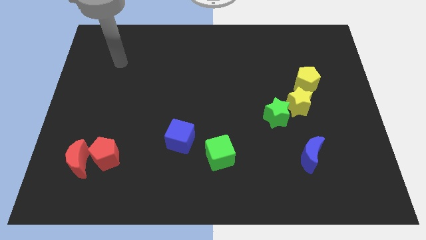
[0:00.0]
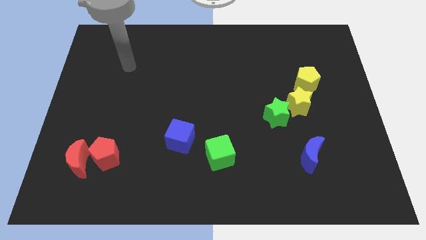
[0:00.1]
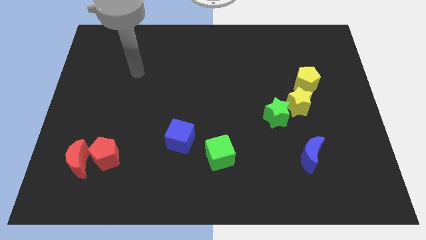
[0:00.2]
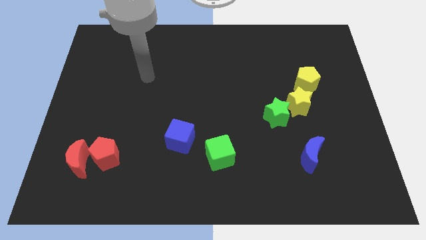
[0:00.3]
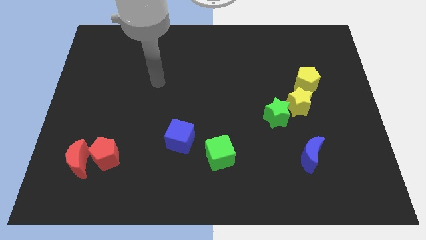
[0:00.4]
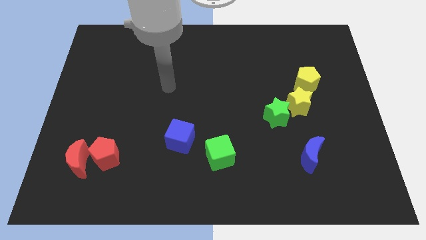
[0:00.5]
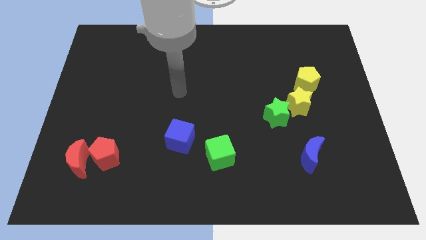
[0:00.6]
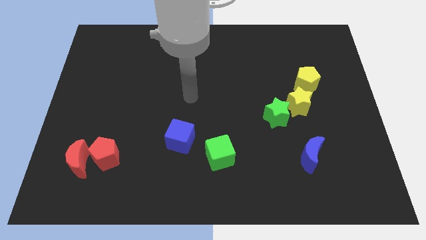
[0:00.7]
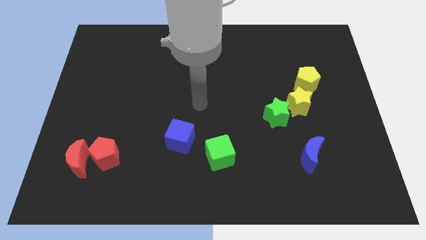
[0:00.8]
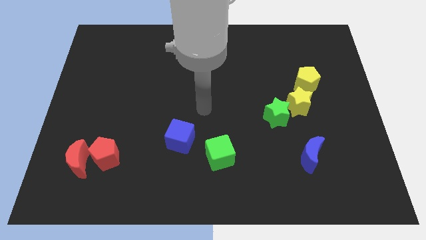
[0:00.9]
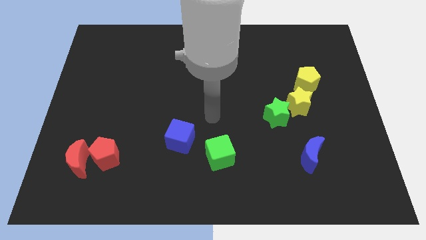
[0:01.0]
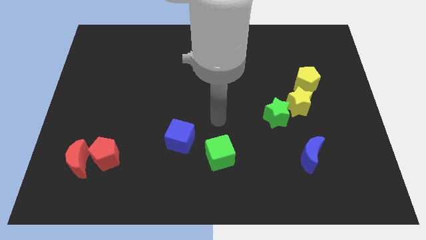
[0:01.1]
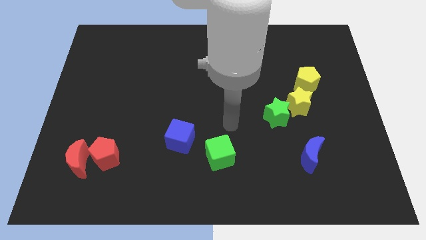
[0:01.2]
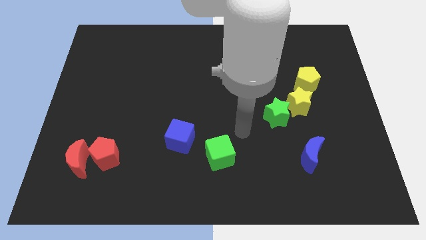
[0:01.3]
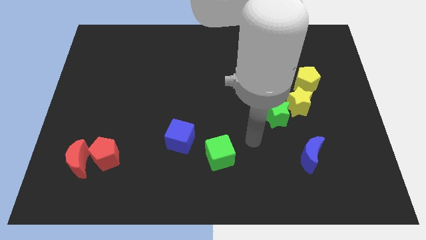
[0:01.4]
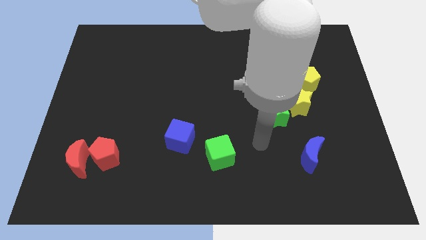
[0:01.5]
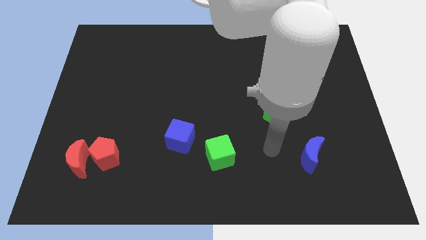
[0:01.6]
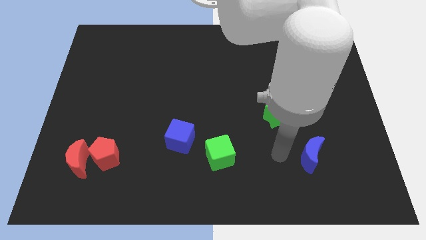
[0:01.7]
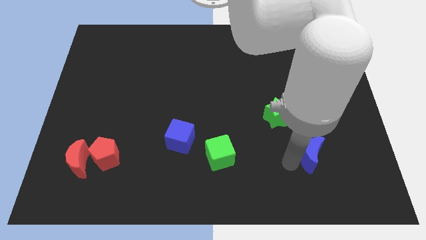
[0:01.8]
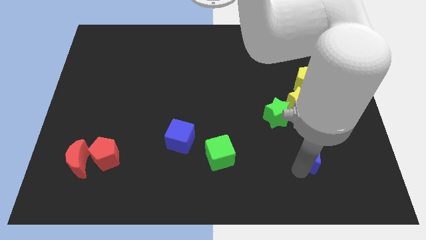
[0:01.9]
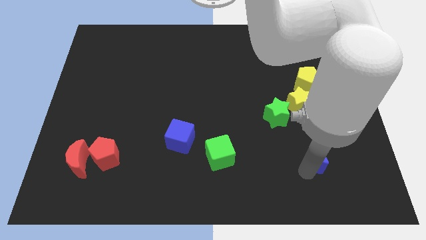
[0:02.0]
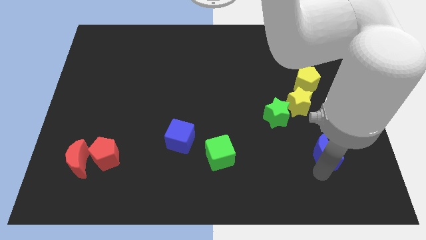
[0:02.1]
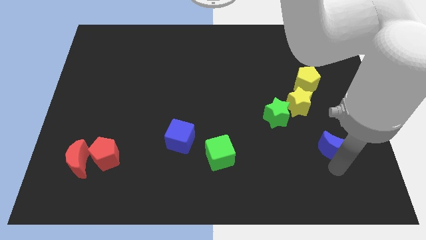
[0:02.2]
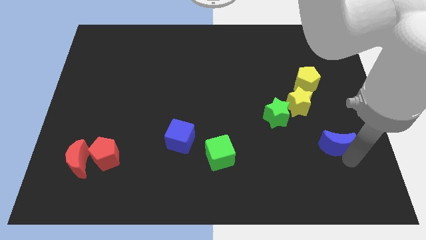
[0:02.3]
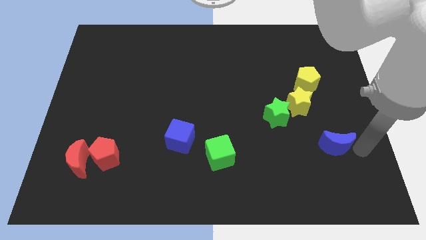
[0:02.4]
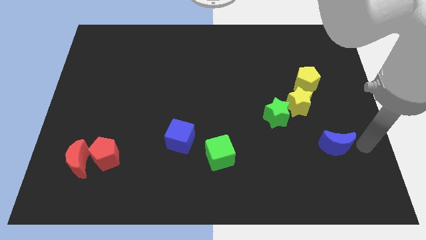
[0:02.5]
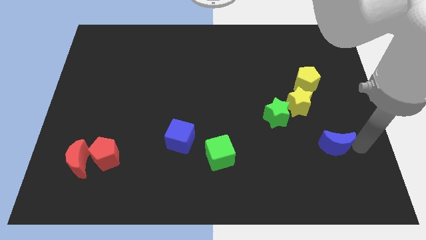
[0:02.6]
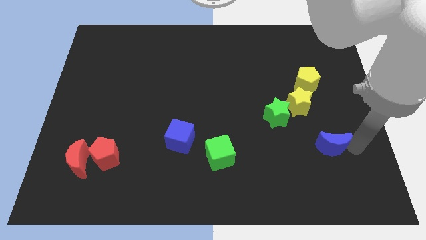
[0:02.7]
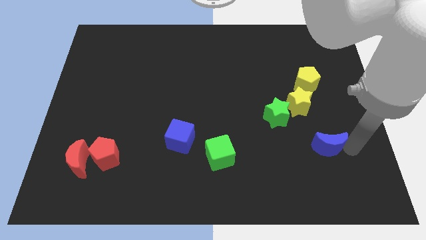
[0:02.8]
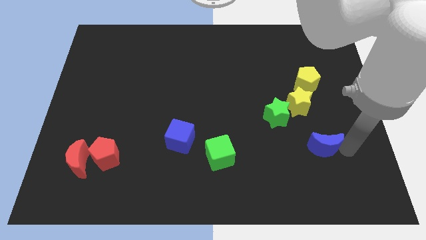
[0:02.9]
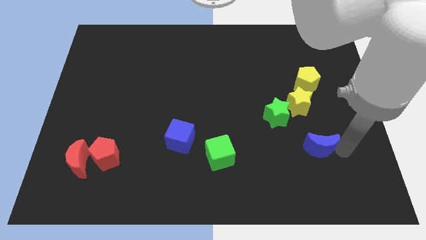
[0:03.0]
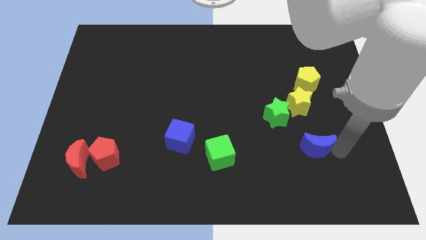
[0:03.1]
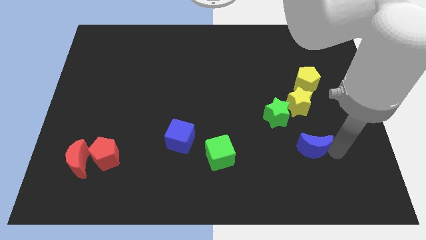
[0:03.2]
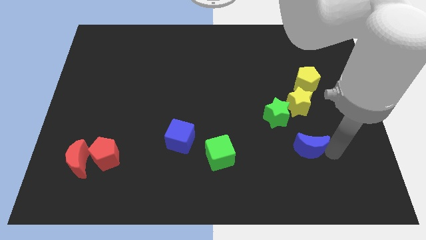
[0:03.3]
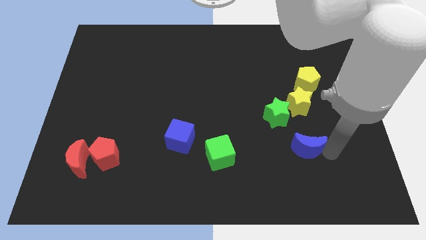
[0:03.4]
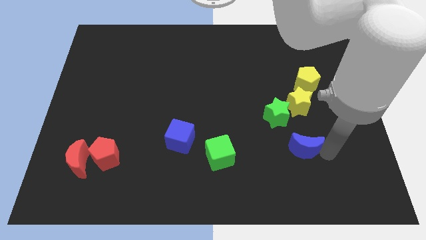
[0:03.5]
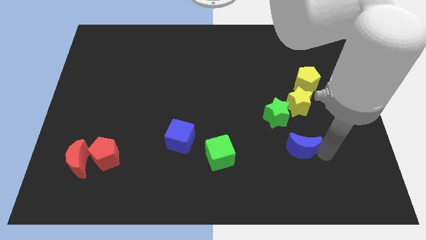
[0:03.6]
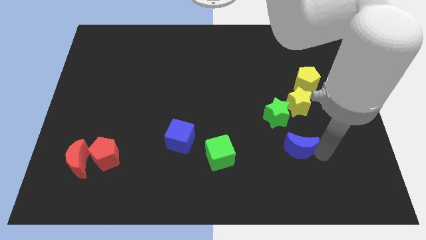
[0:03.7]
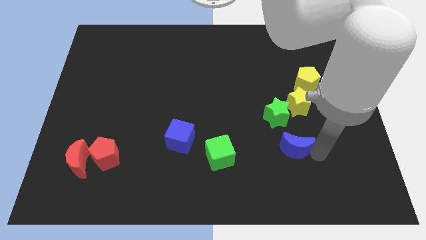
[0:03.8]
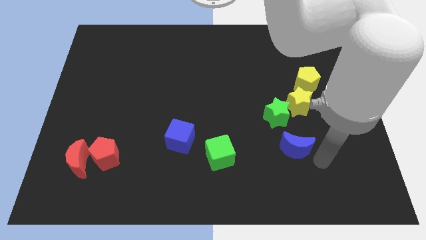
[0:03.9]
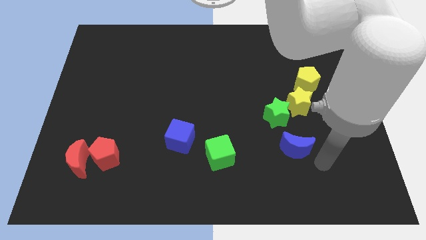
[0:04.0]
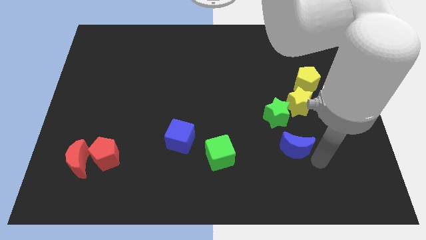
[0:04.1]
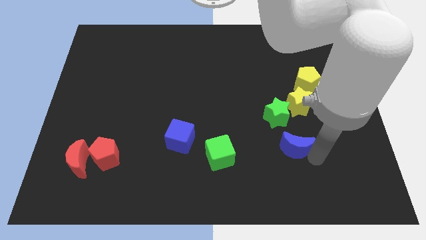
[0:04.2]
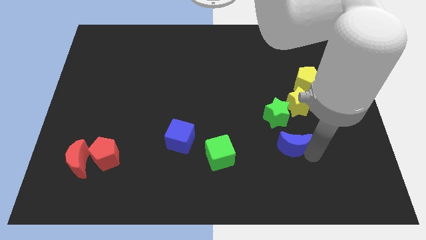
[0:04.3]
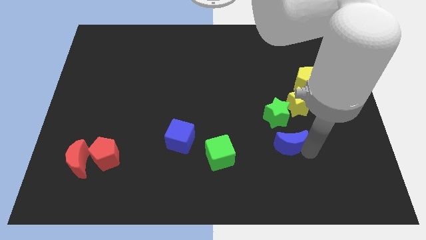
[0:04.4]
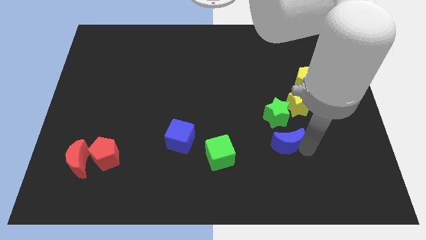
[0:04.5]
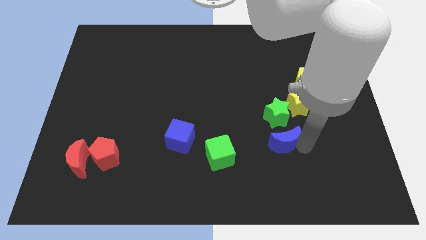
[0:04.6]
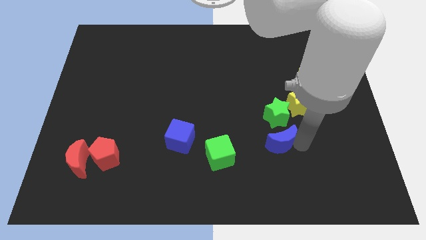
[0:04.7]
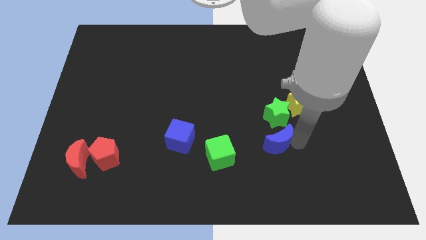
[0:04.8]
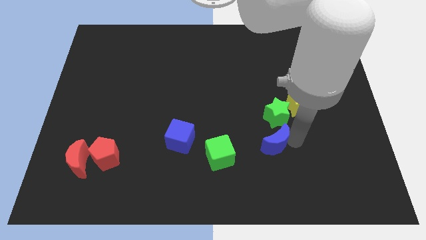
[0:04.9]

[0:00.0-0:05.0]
slightly slide the blue moon up and then to the left

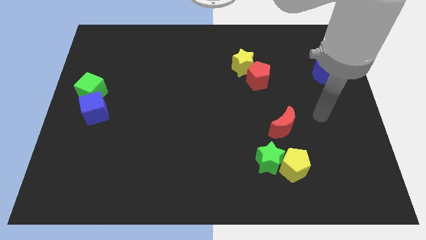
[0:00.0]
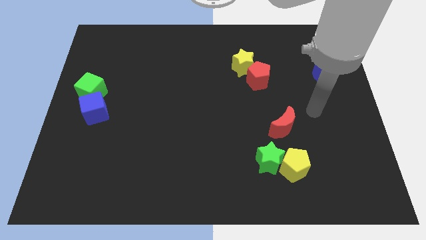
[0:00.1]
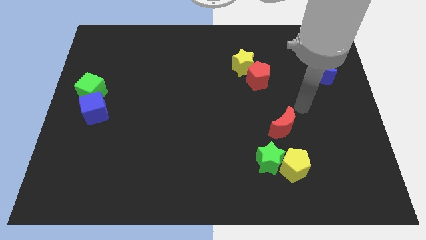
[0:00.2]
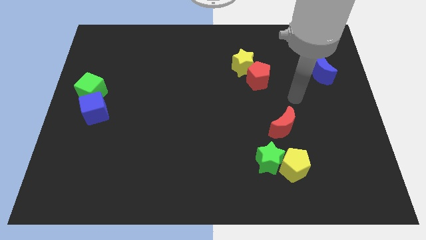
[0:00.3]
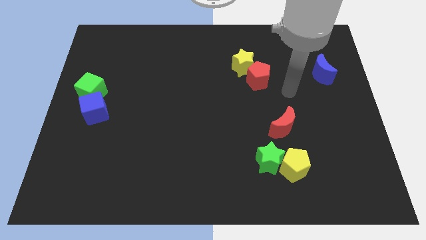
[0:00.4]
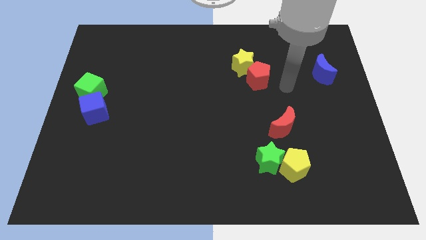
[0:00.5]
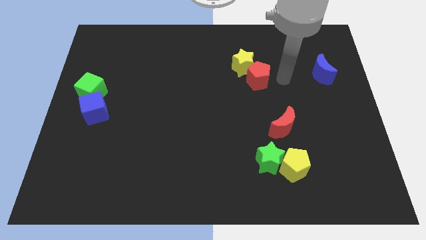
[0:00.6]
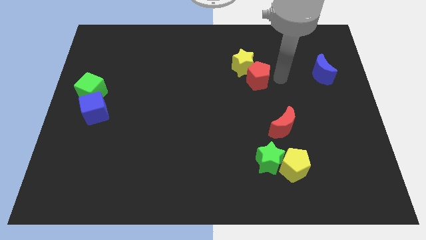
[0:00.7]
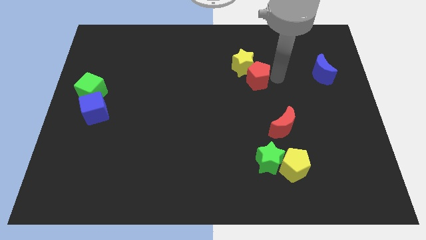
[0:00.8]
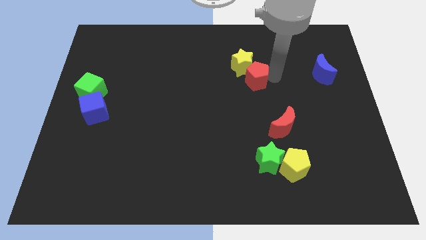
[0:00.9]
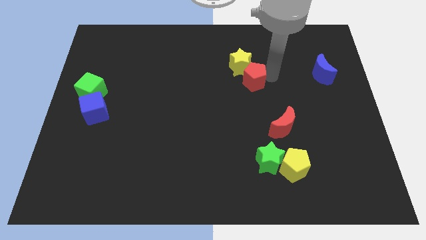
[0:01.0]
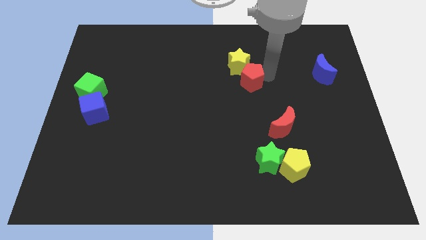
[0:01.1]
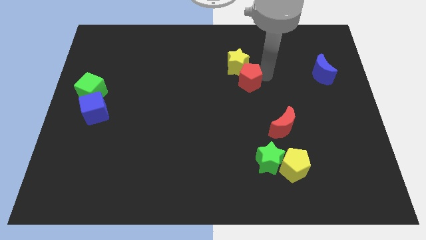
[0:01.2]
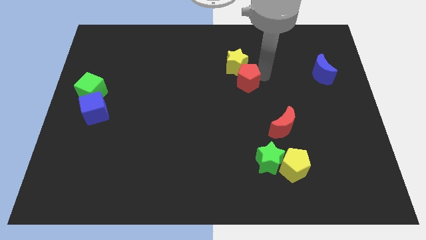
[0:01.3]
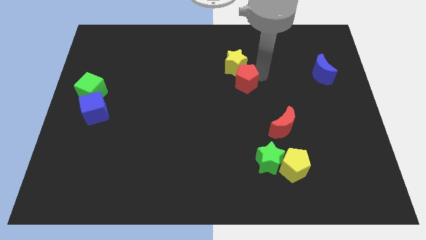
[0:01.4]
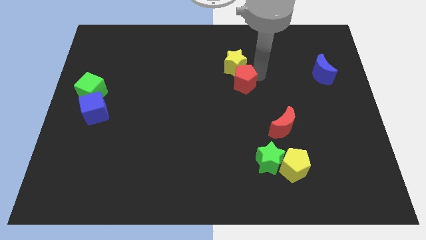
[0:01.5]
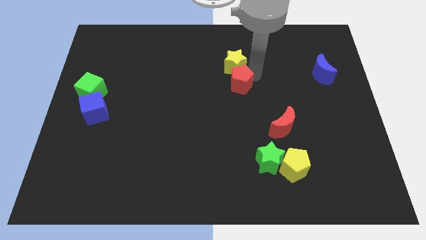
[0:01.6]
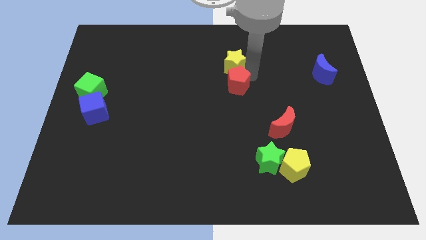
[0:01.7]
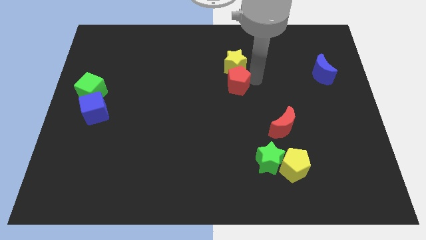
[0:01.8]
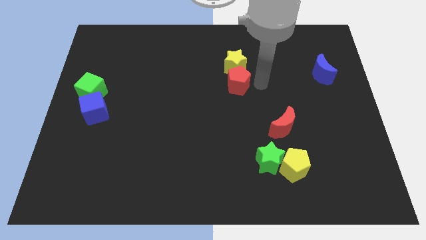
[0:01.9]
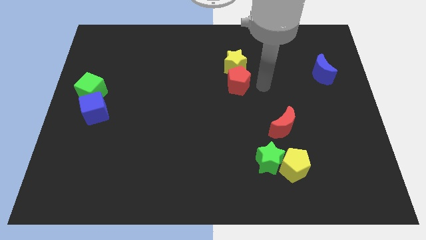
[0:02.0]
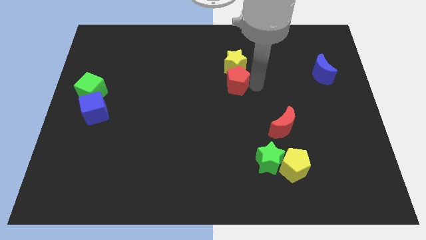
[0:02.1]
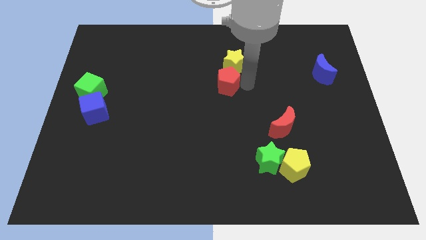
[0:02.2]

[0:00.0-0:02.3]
slightly slide the red pentagon left

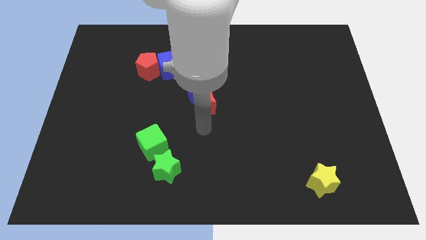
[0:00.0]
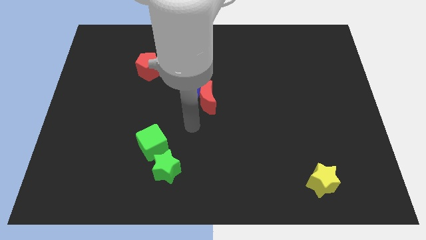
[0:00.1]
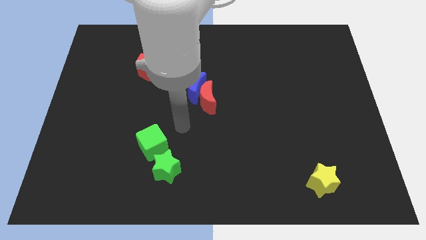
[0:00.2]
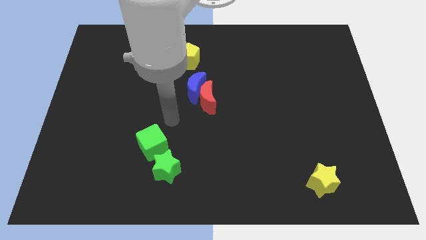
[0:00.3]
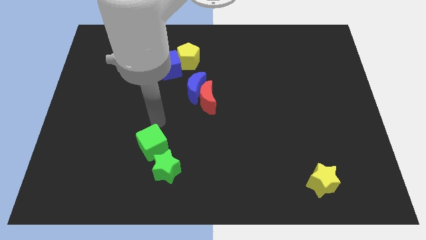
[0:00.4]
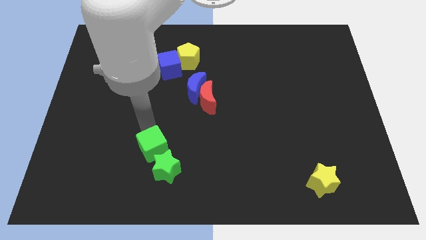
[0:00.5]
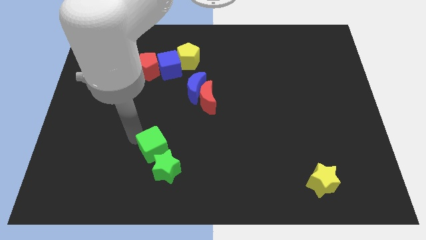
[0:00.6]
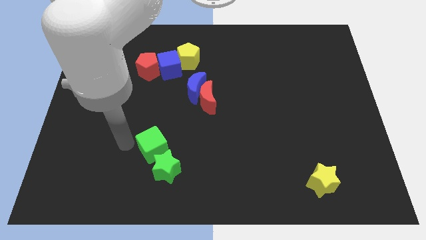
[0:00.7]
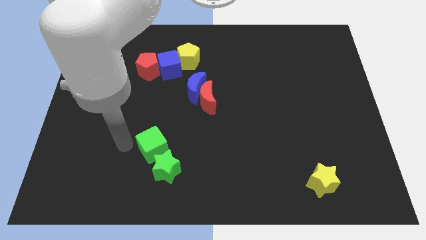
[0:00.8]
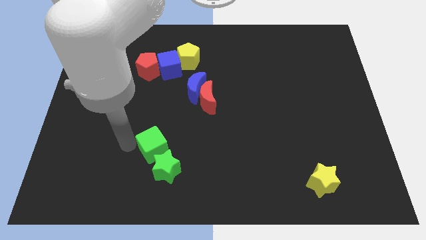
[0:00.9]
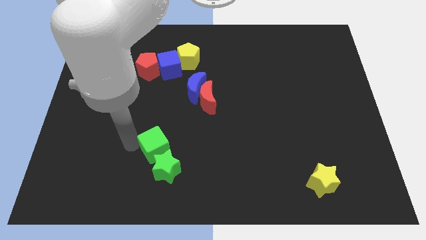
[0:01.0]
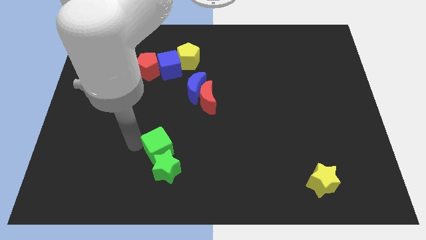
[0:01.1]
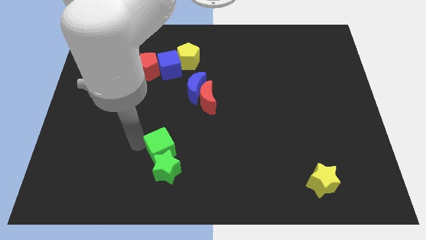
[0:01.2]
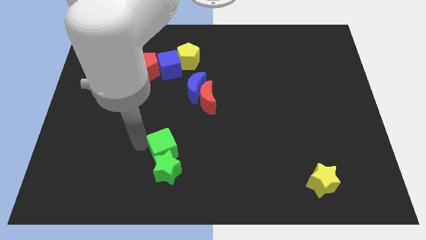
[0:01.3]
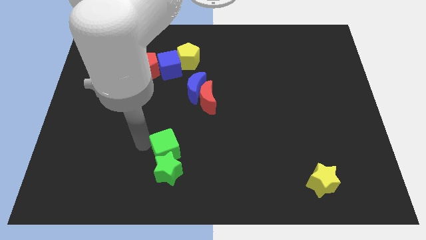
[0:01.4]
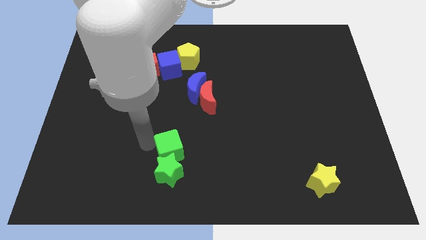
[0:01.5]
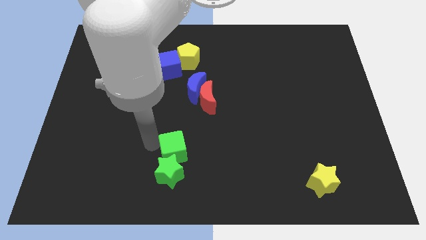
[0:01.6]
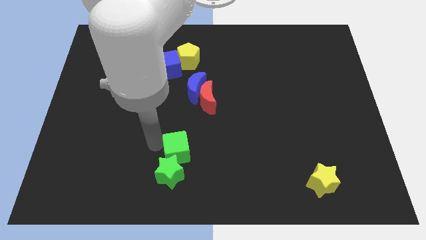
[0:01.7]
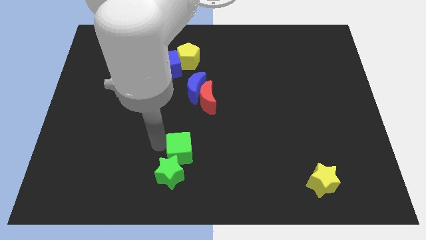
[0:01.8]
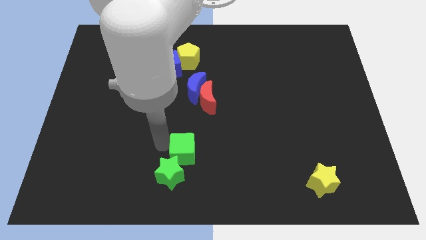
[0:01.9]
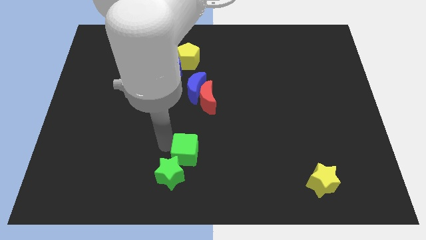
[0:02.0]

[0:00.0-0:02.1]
slightly slide the green cube right
